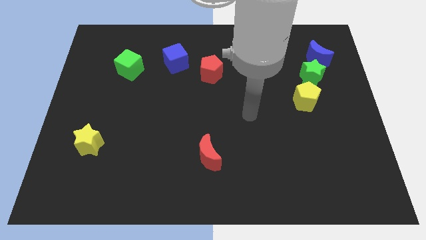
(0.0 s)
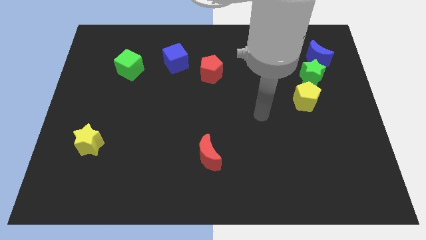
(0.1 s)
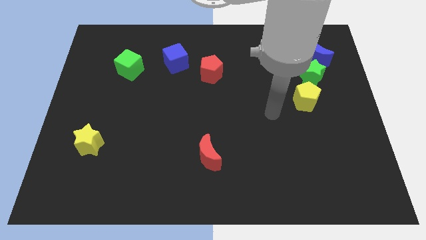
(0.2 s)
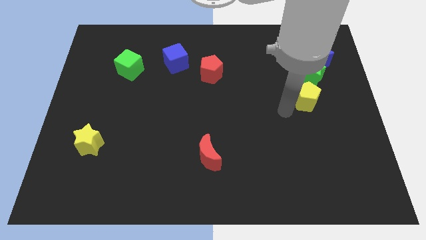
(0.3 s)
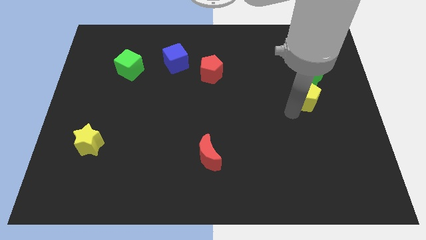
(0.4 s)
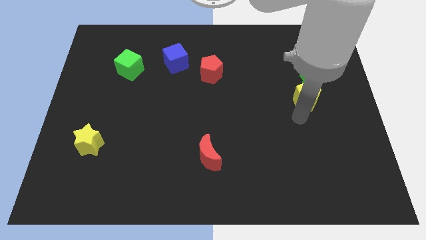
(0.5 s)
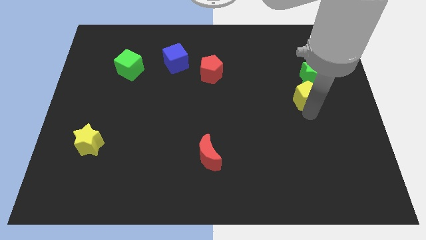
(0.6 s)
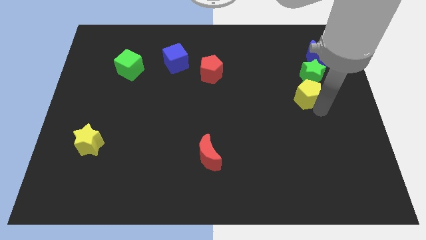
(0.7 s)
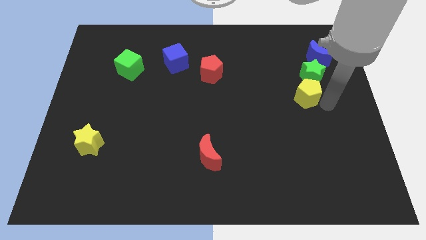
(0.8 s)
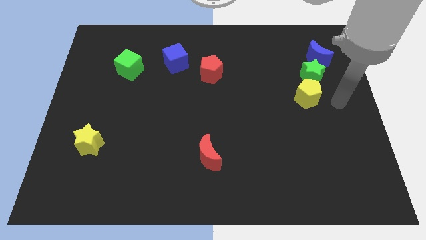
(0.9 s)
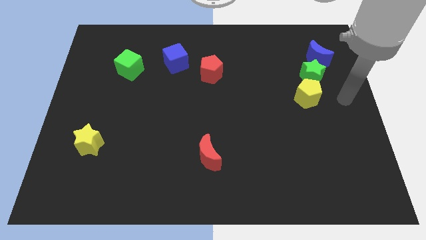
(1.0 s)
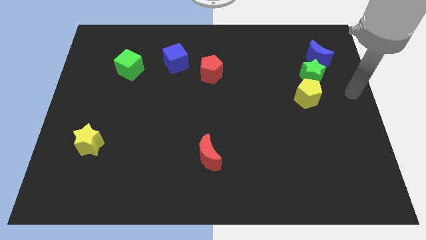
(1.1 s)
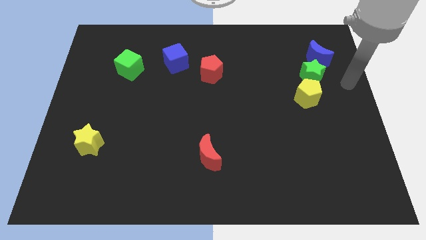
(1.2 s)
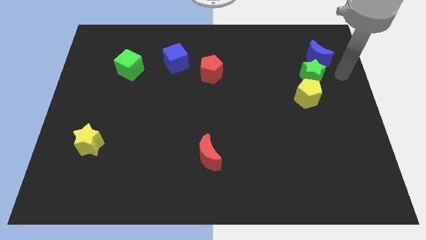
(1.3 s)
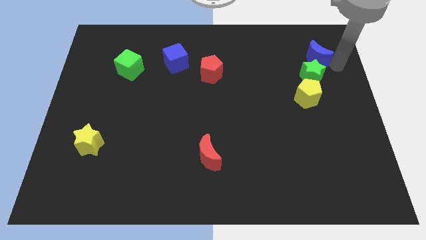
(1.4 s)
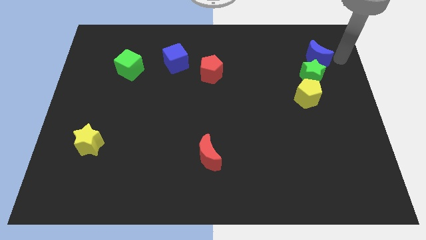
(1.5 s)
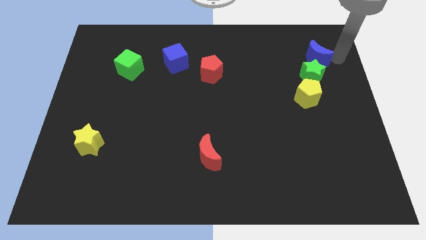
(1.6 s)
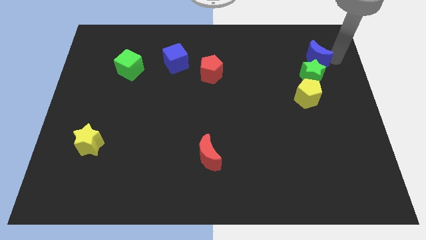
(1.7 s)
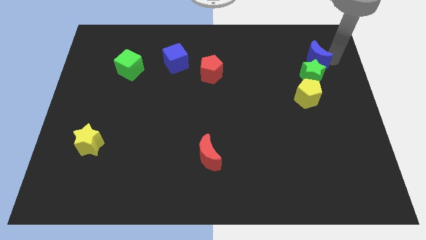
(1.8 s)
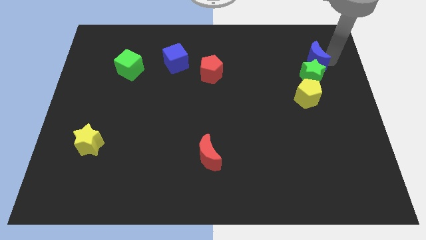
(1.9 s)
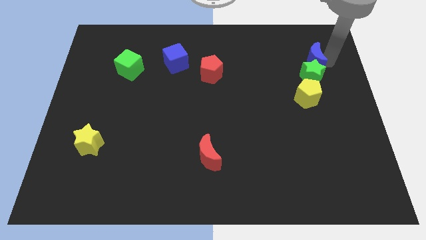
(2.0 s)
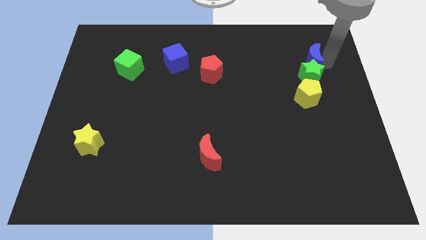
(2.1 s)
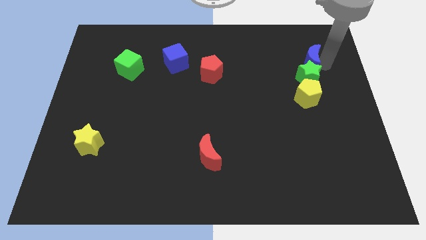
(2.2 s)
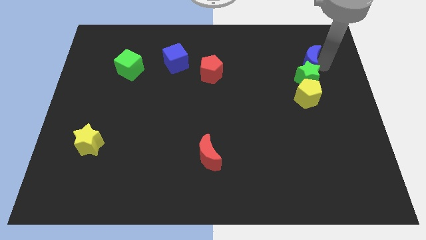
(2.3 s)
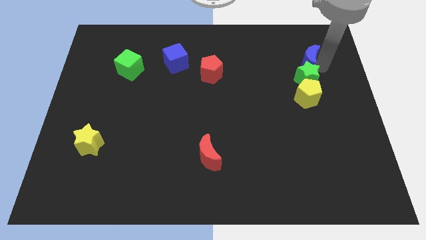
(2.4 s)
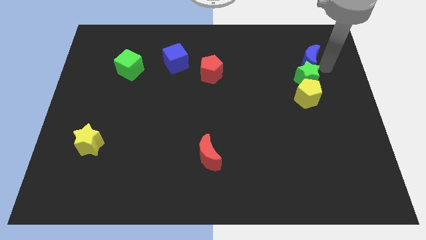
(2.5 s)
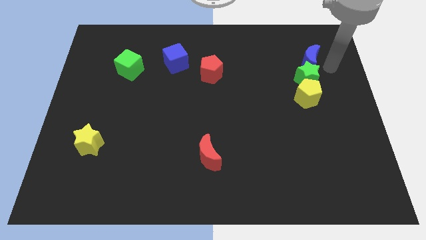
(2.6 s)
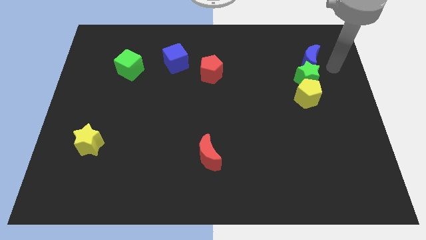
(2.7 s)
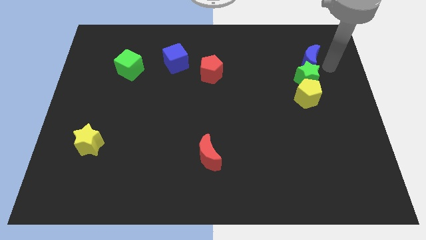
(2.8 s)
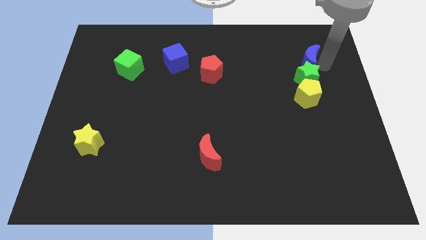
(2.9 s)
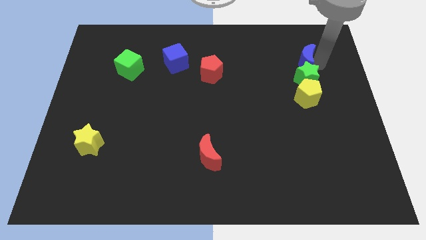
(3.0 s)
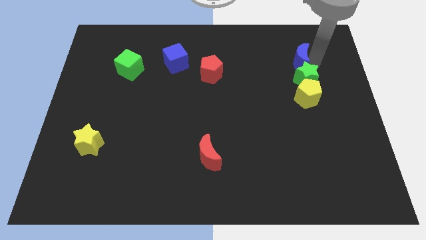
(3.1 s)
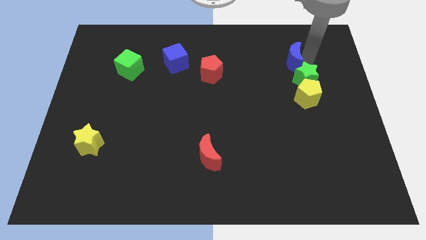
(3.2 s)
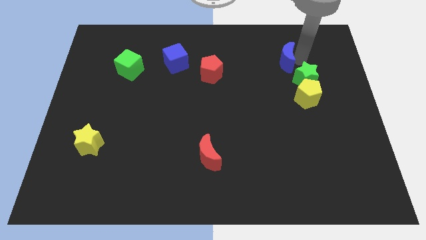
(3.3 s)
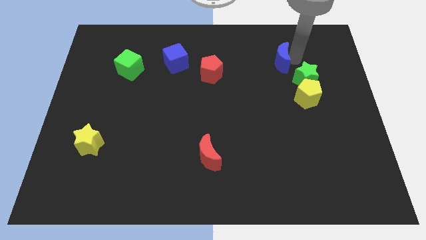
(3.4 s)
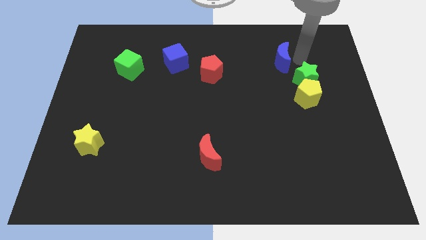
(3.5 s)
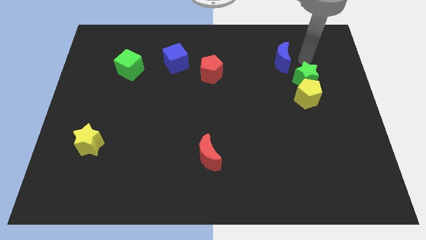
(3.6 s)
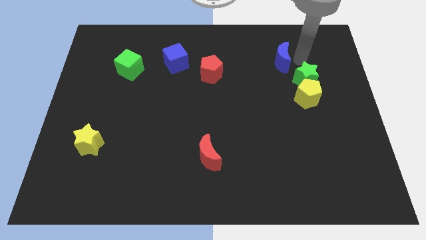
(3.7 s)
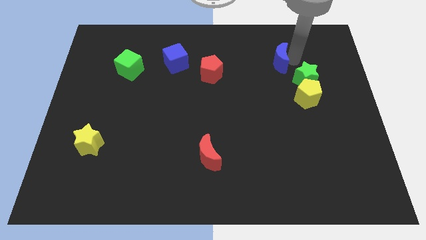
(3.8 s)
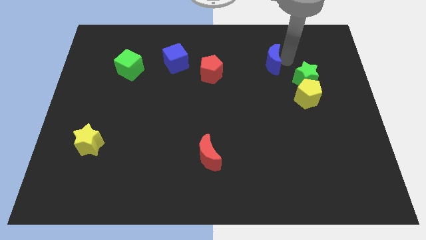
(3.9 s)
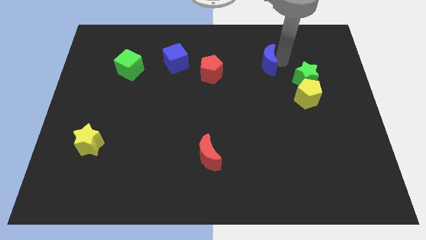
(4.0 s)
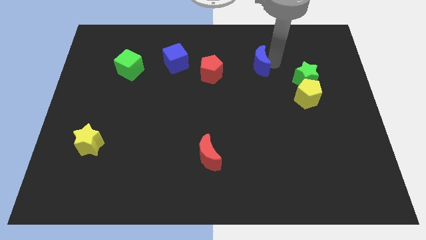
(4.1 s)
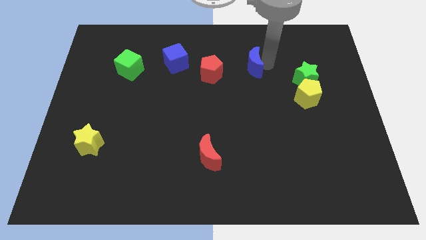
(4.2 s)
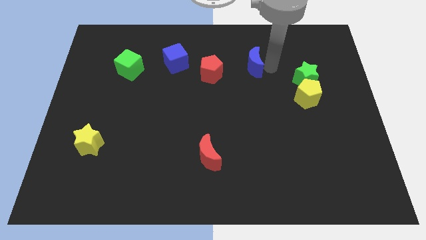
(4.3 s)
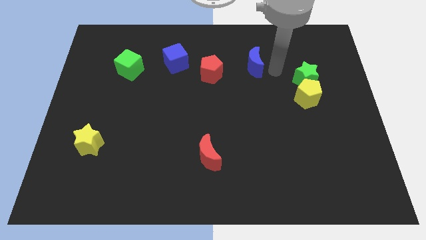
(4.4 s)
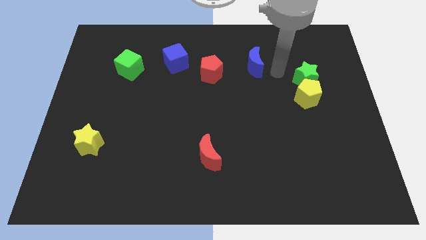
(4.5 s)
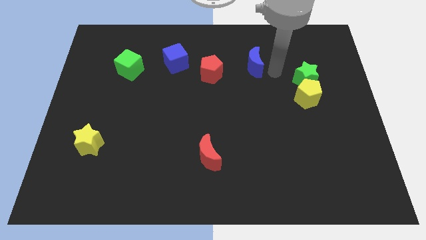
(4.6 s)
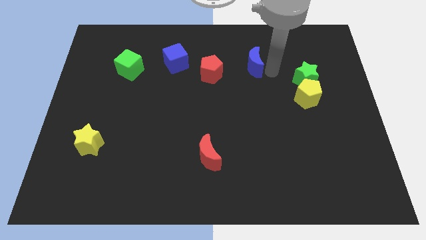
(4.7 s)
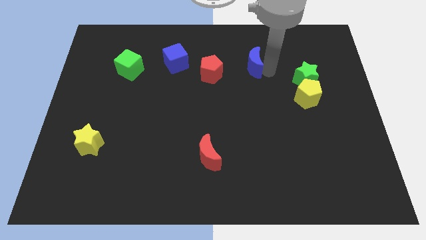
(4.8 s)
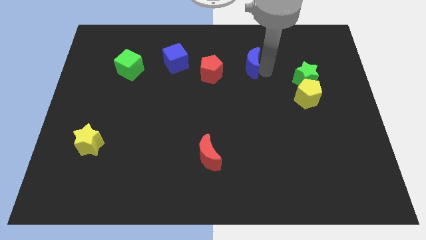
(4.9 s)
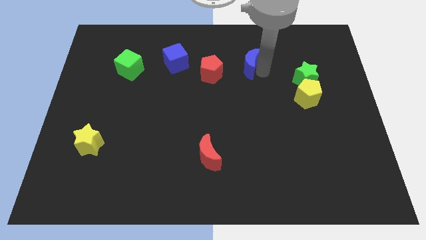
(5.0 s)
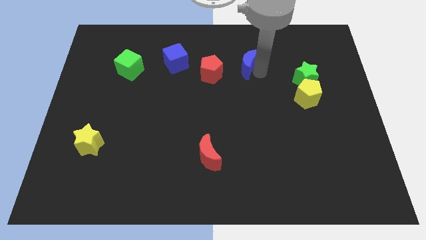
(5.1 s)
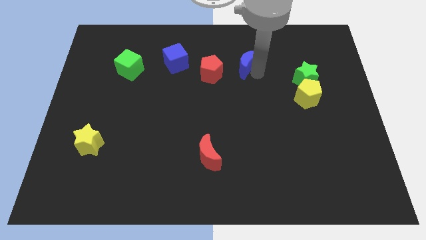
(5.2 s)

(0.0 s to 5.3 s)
slide the blue moon to the top right of the red pentagon

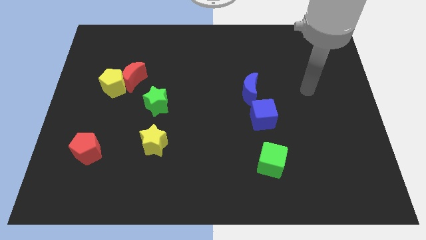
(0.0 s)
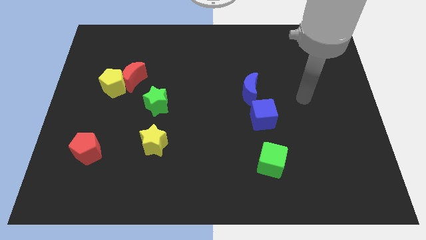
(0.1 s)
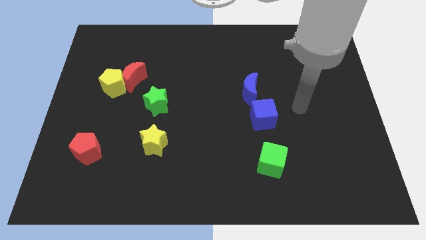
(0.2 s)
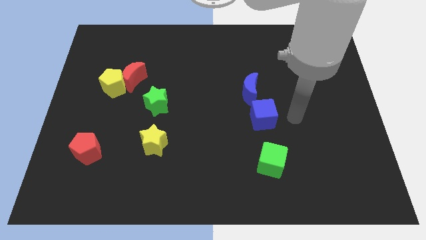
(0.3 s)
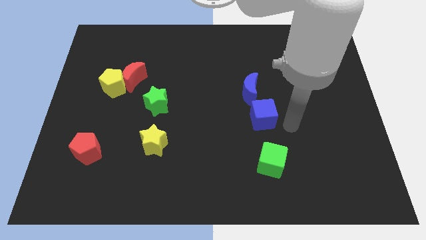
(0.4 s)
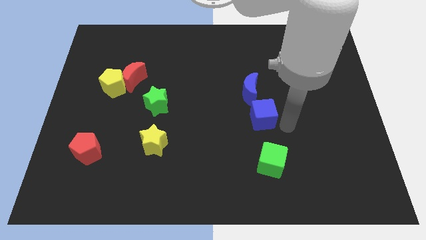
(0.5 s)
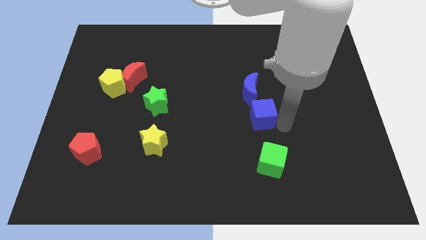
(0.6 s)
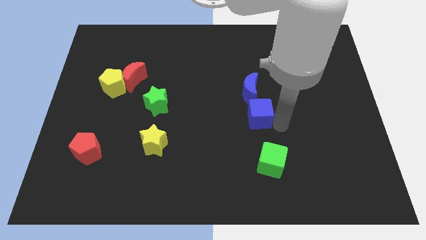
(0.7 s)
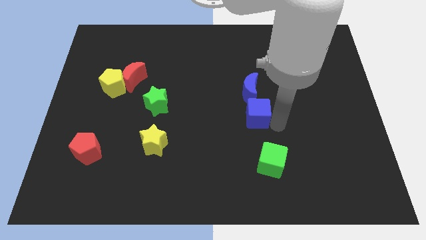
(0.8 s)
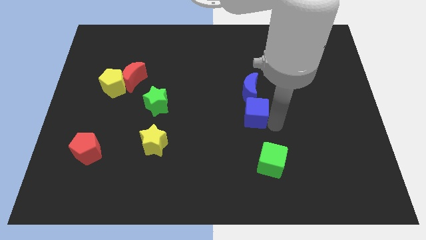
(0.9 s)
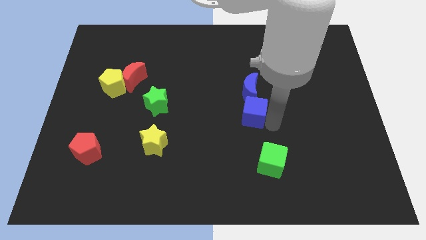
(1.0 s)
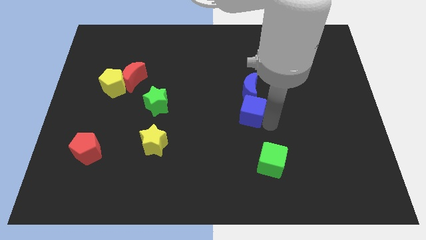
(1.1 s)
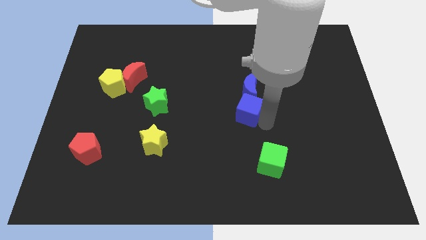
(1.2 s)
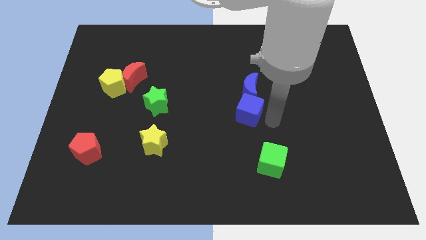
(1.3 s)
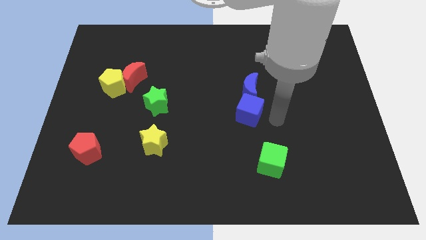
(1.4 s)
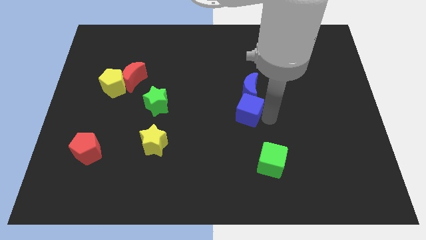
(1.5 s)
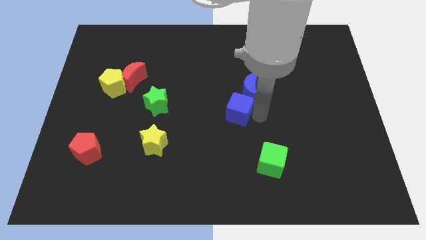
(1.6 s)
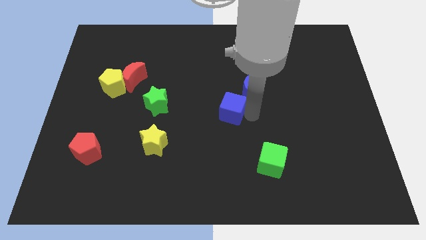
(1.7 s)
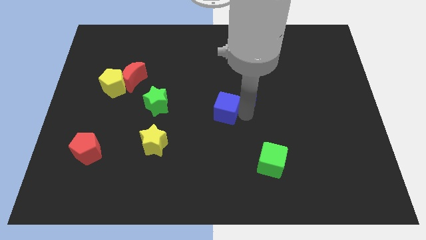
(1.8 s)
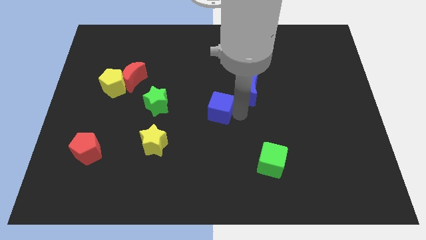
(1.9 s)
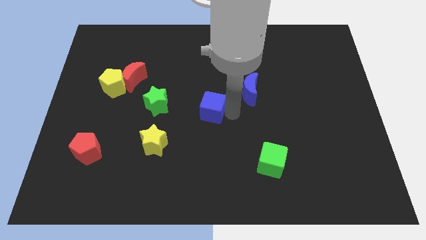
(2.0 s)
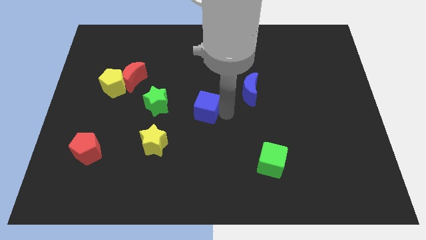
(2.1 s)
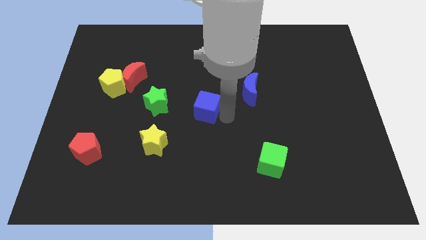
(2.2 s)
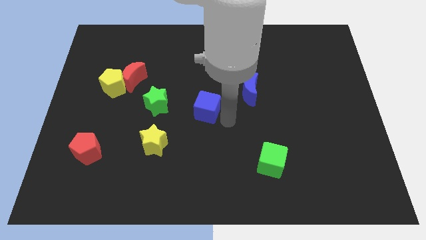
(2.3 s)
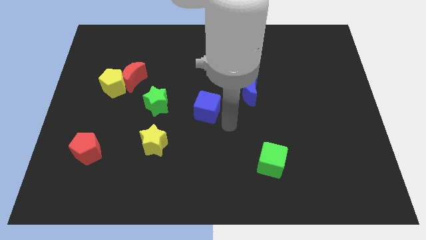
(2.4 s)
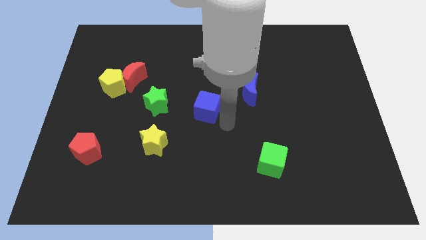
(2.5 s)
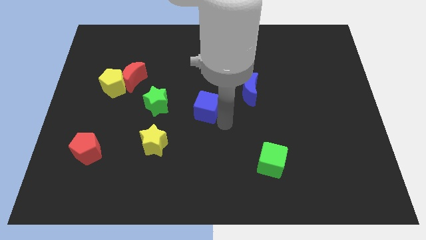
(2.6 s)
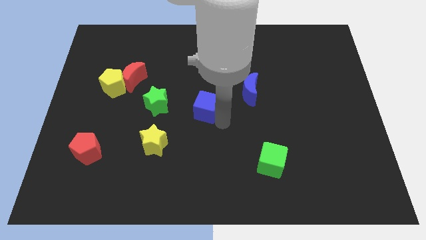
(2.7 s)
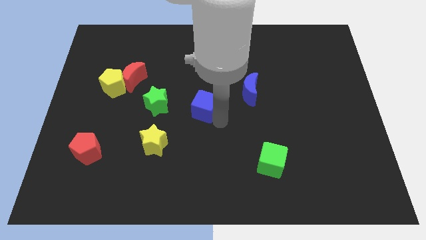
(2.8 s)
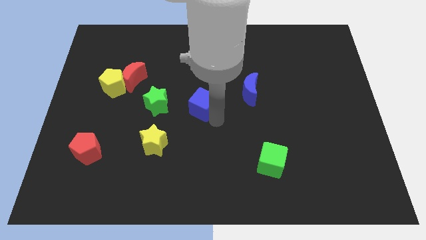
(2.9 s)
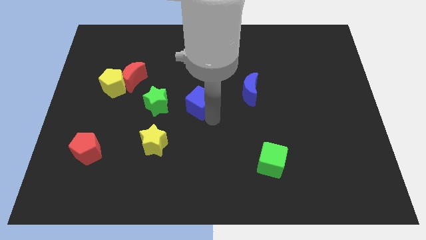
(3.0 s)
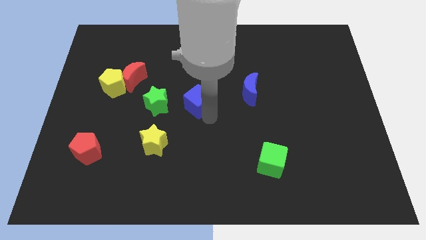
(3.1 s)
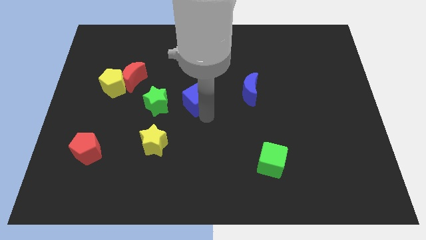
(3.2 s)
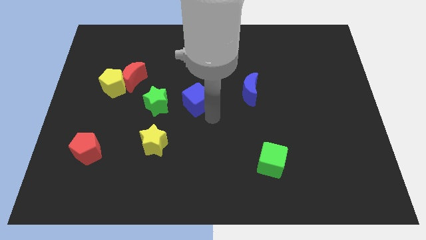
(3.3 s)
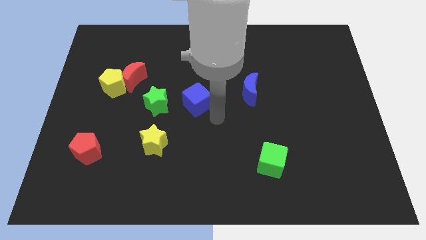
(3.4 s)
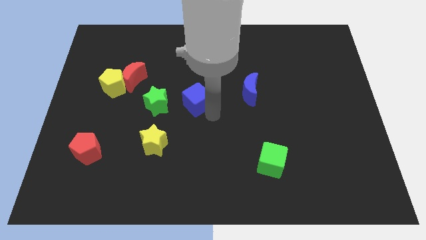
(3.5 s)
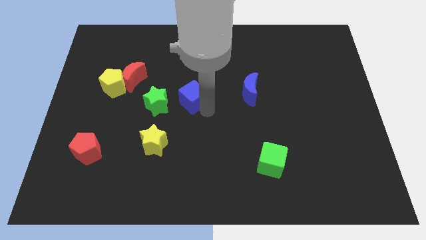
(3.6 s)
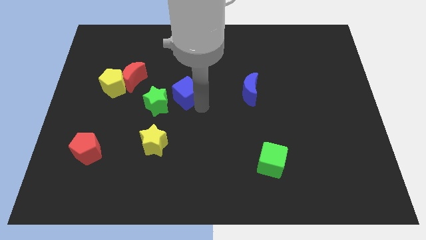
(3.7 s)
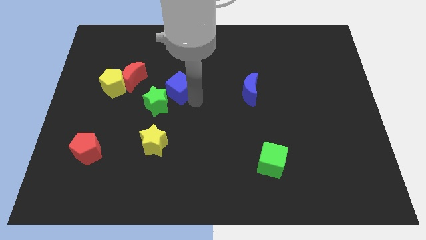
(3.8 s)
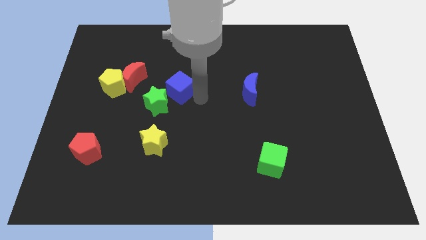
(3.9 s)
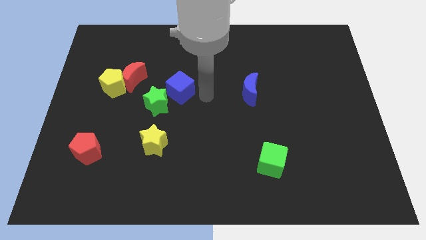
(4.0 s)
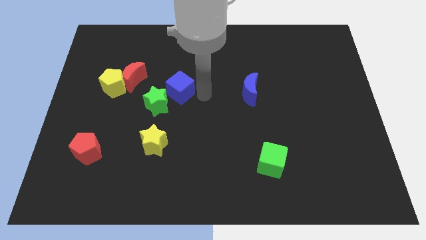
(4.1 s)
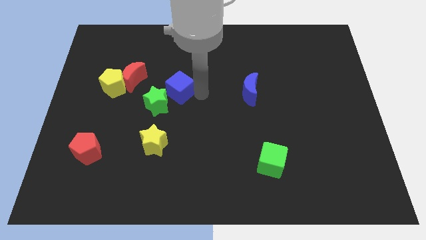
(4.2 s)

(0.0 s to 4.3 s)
put the blue cube just right of the yellow pentagon
